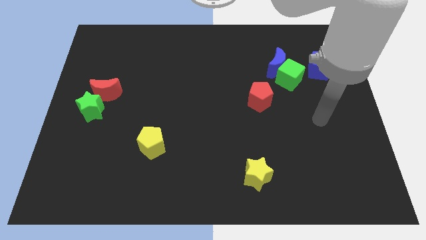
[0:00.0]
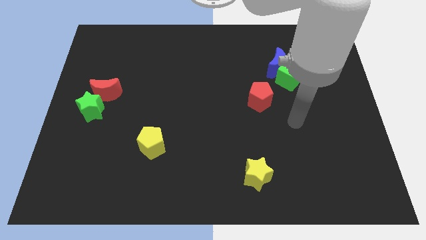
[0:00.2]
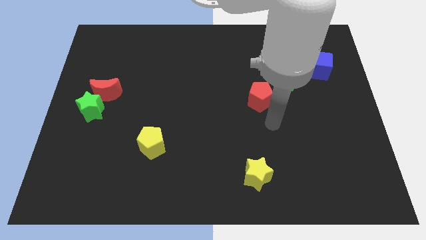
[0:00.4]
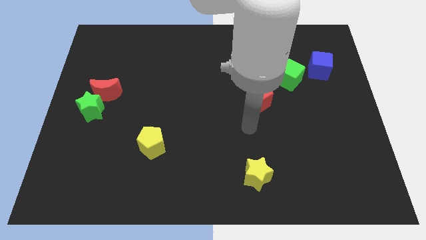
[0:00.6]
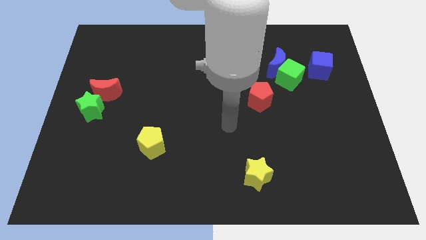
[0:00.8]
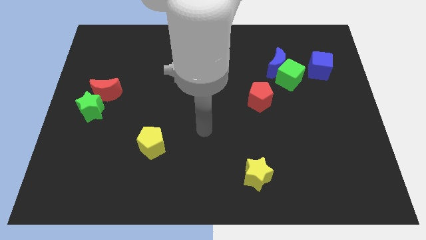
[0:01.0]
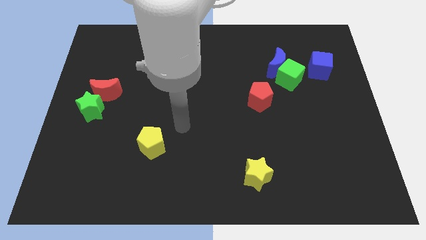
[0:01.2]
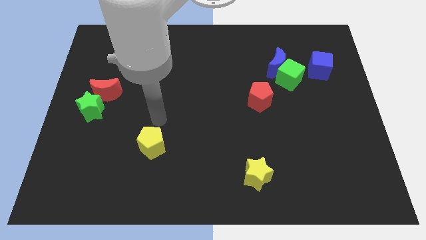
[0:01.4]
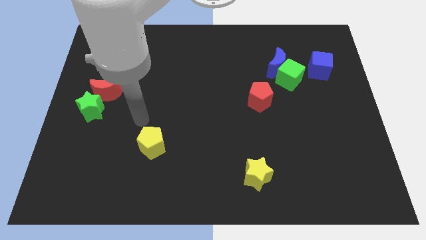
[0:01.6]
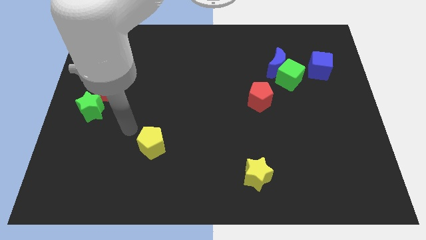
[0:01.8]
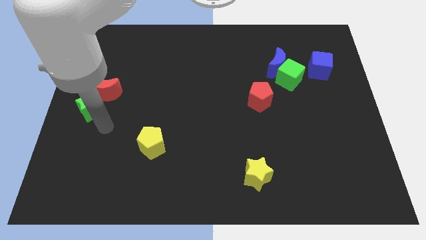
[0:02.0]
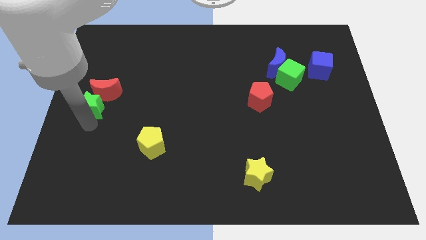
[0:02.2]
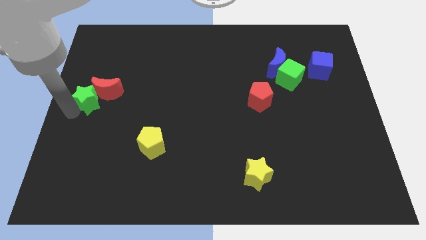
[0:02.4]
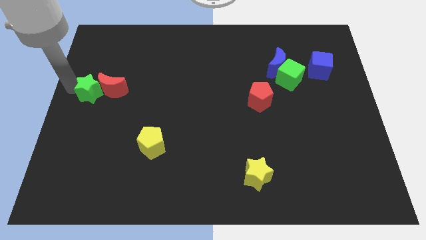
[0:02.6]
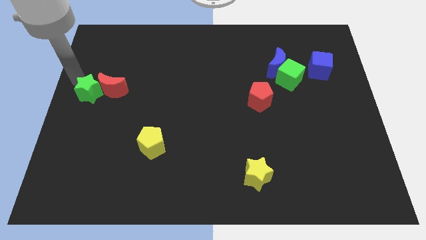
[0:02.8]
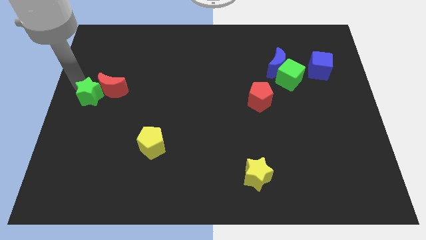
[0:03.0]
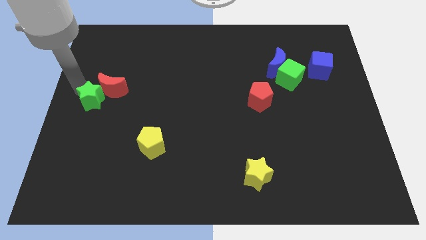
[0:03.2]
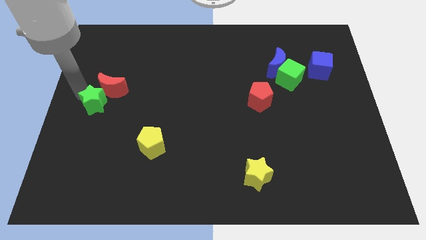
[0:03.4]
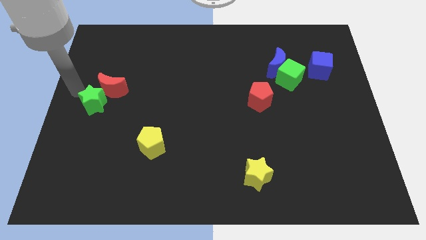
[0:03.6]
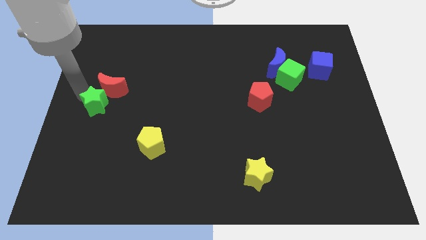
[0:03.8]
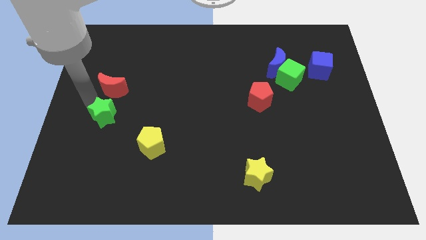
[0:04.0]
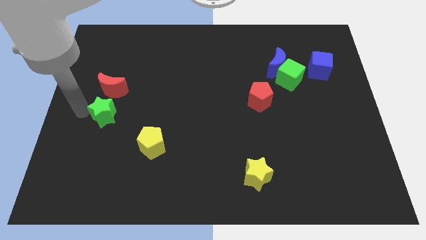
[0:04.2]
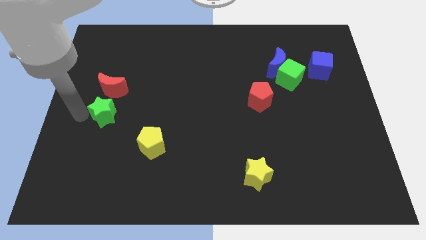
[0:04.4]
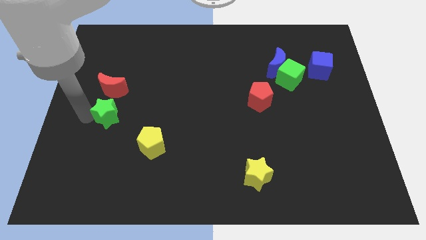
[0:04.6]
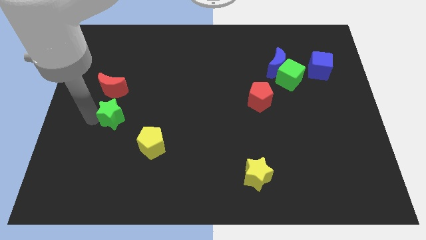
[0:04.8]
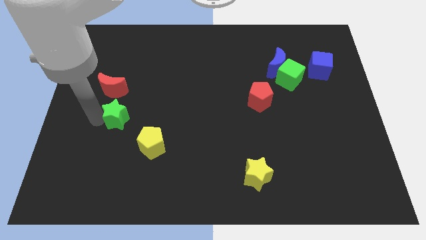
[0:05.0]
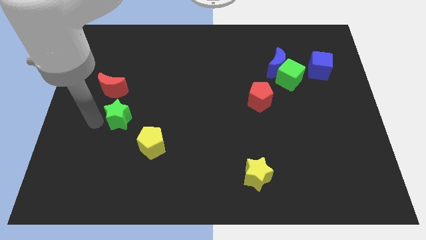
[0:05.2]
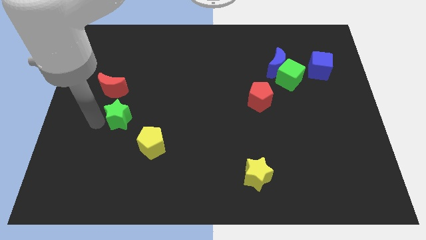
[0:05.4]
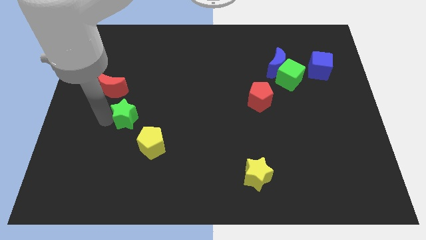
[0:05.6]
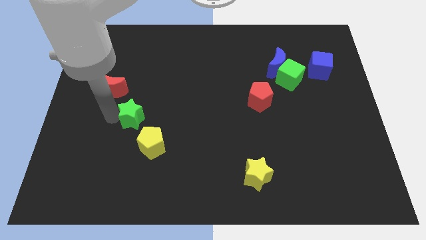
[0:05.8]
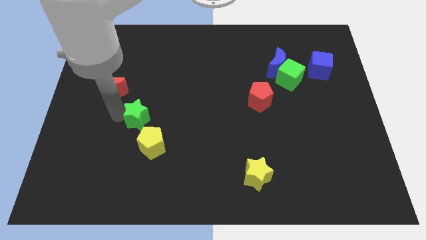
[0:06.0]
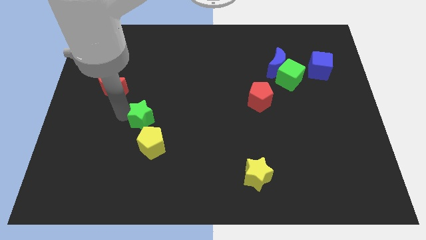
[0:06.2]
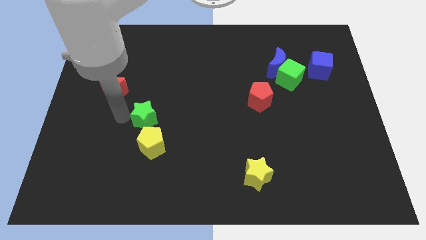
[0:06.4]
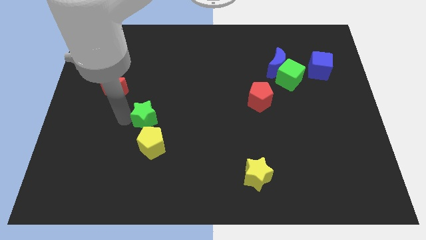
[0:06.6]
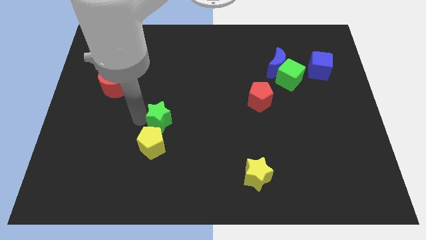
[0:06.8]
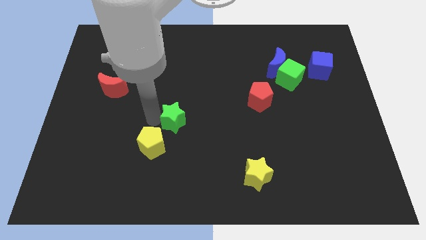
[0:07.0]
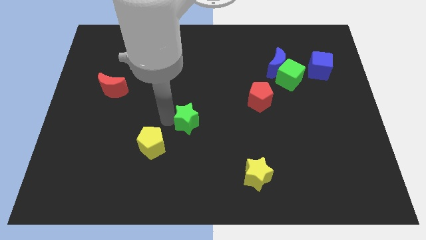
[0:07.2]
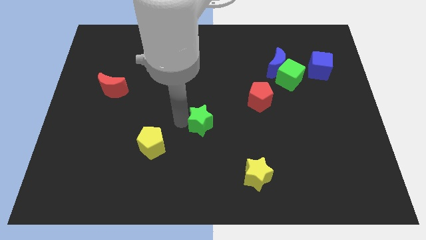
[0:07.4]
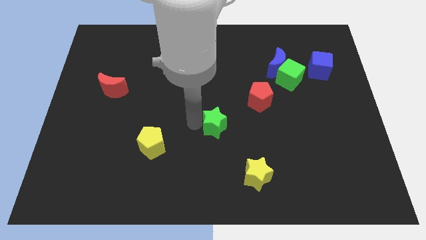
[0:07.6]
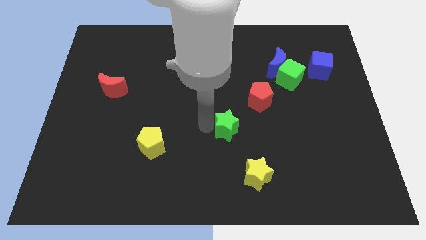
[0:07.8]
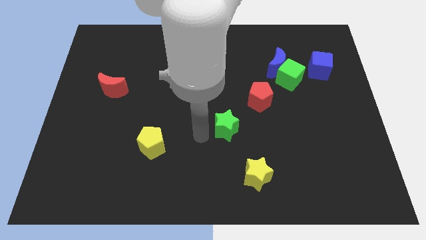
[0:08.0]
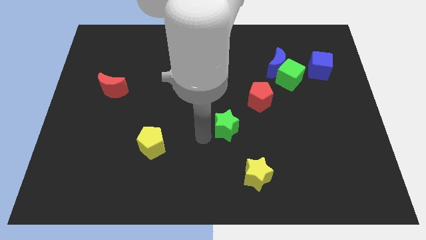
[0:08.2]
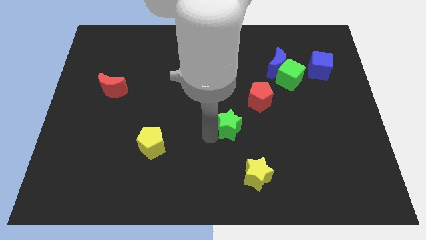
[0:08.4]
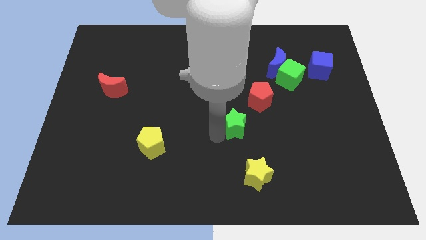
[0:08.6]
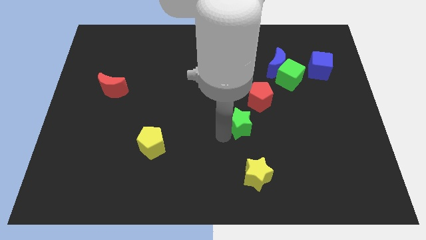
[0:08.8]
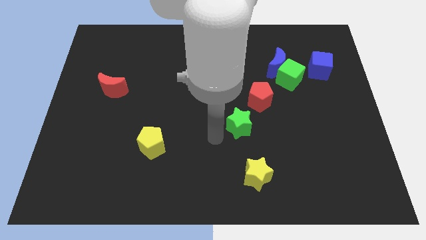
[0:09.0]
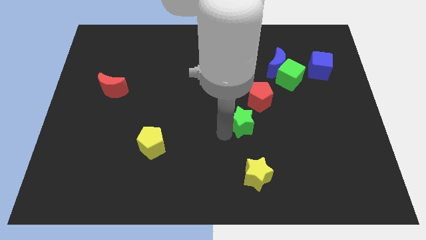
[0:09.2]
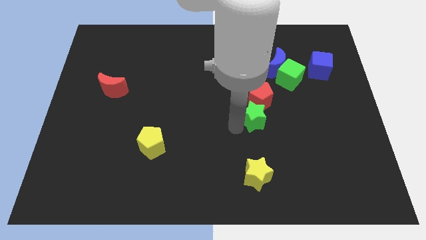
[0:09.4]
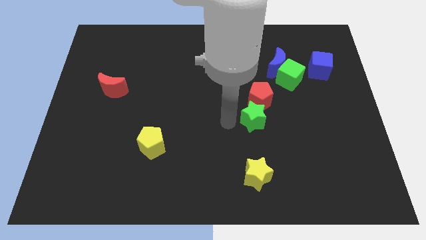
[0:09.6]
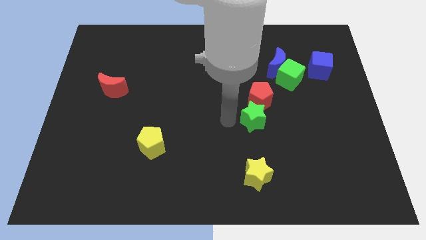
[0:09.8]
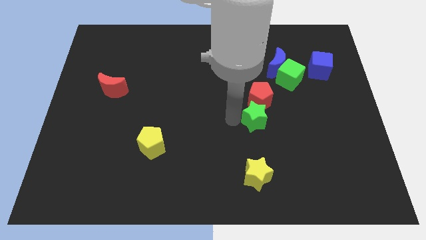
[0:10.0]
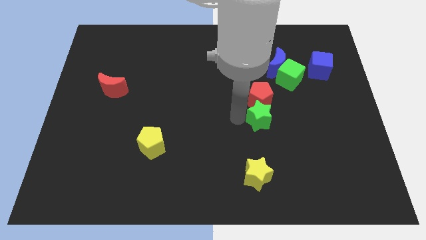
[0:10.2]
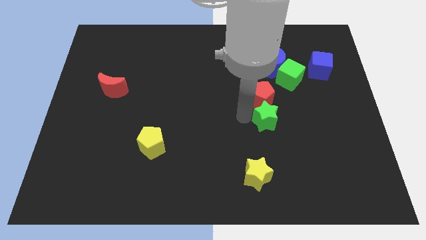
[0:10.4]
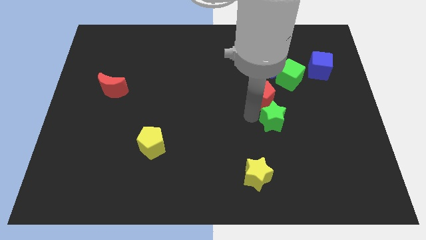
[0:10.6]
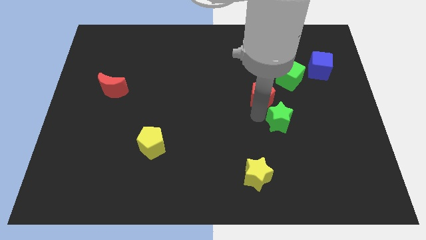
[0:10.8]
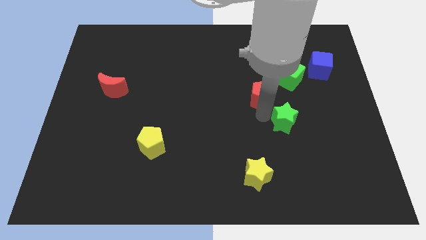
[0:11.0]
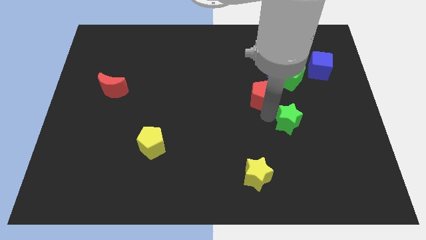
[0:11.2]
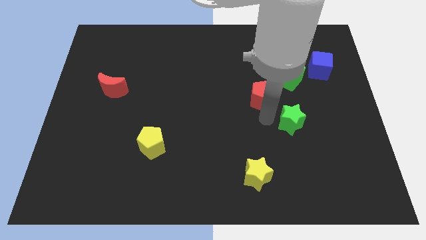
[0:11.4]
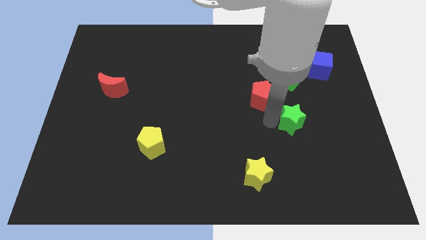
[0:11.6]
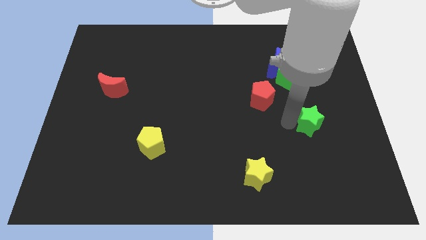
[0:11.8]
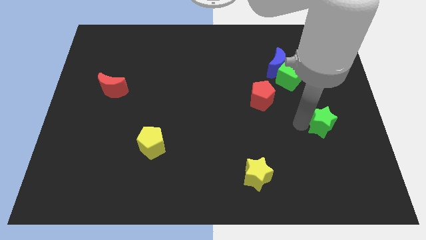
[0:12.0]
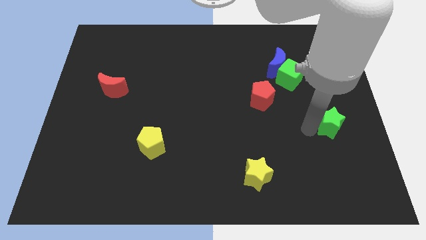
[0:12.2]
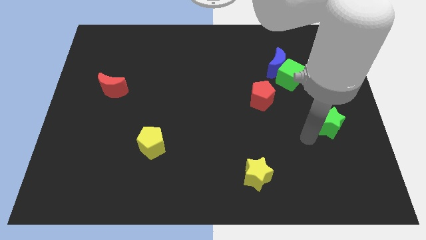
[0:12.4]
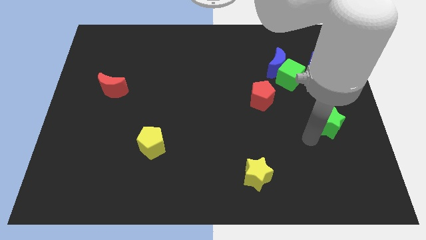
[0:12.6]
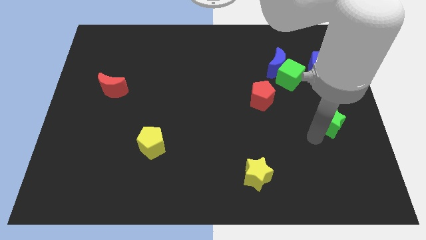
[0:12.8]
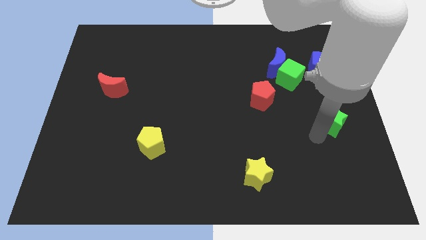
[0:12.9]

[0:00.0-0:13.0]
move the green star to the right side

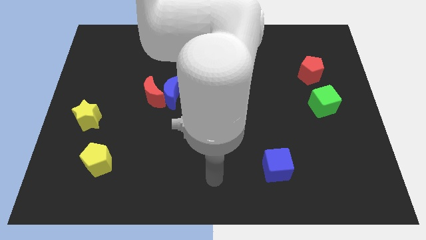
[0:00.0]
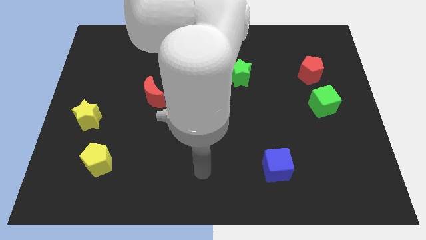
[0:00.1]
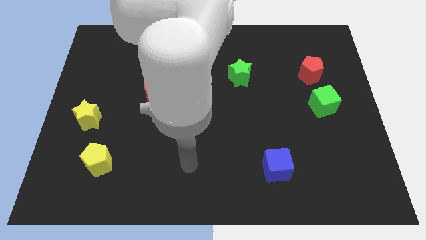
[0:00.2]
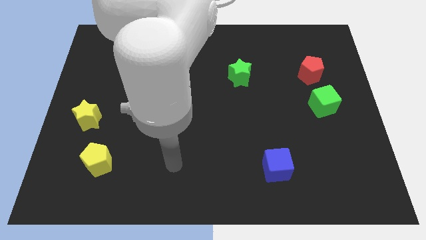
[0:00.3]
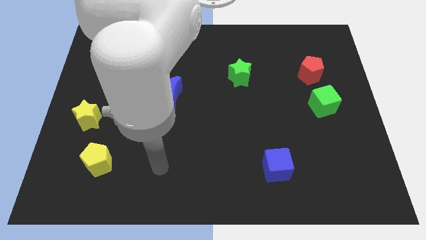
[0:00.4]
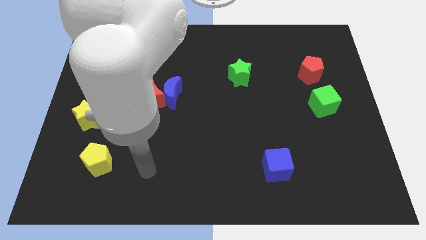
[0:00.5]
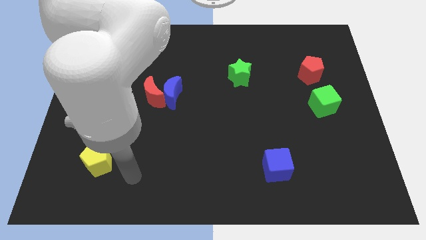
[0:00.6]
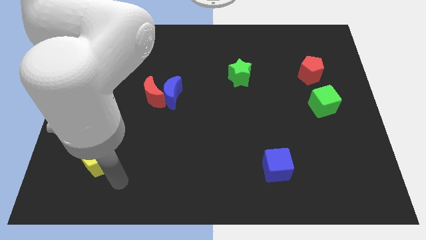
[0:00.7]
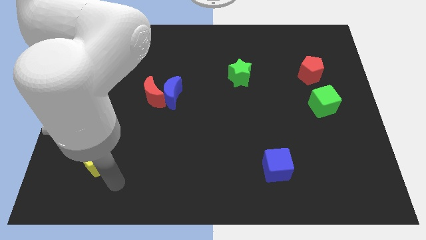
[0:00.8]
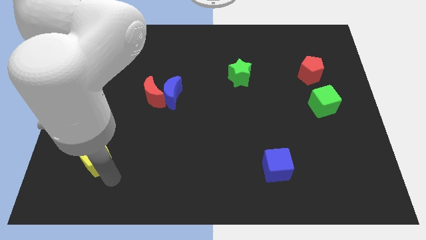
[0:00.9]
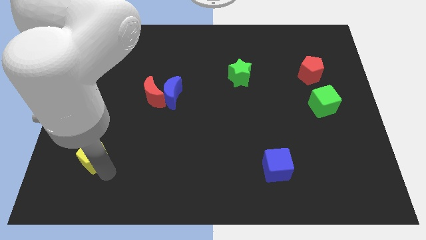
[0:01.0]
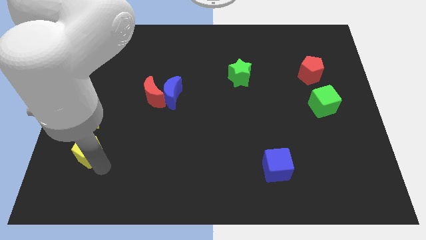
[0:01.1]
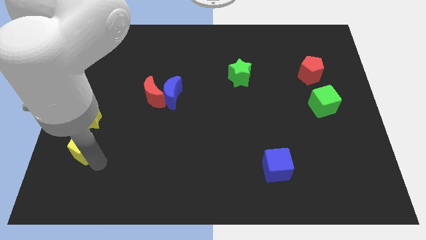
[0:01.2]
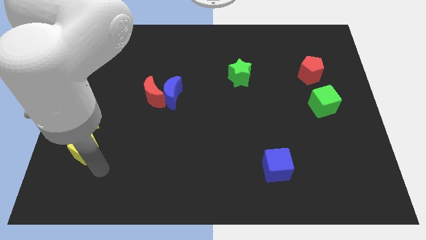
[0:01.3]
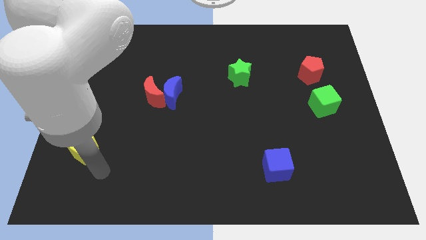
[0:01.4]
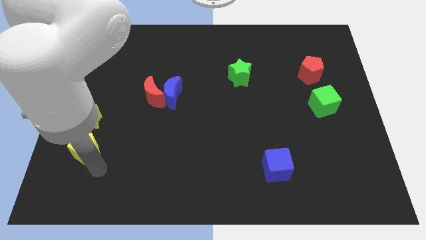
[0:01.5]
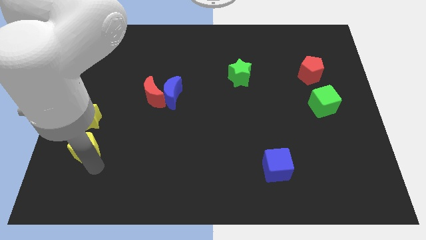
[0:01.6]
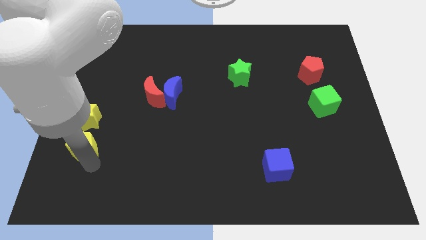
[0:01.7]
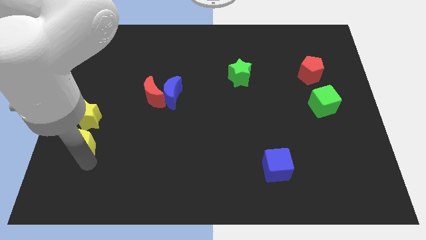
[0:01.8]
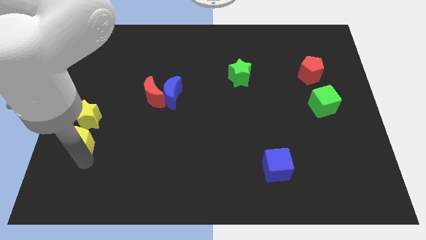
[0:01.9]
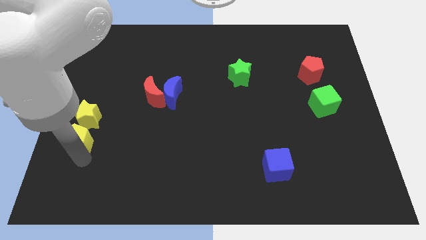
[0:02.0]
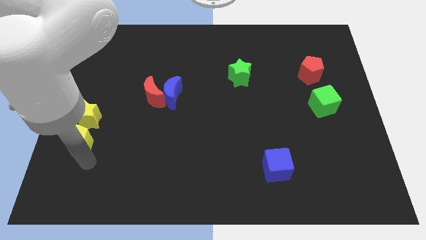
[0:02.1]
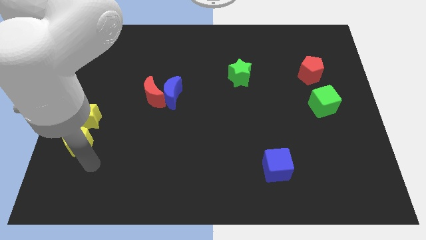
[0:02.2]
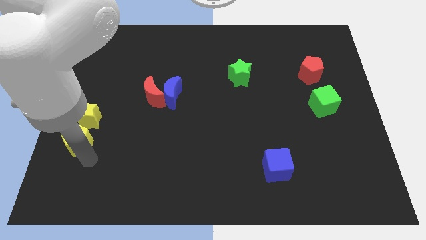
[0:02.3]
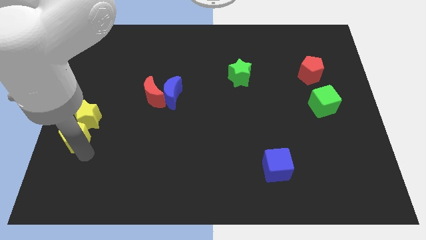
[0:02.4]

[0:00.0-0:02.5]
move the yellow pentagon to the left side of the board
